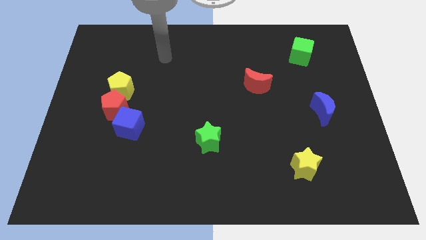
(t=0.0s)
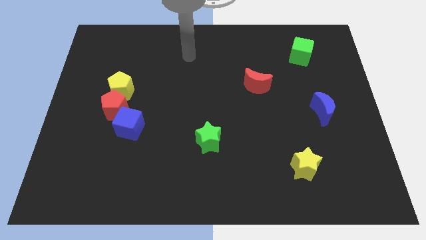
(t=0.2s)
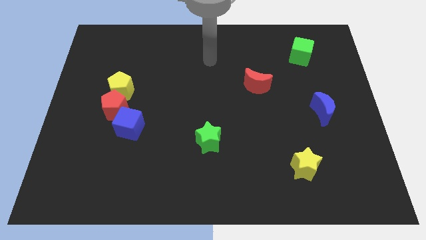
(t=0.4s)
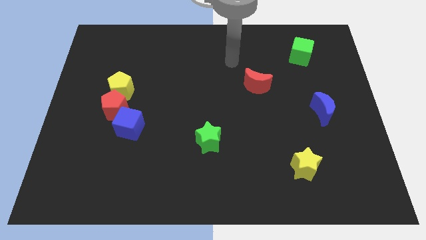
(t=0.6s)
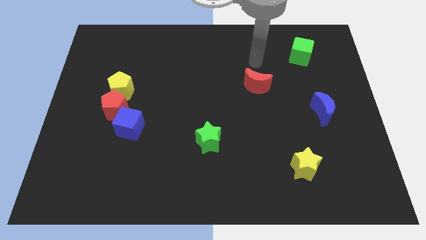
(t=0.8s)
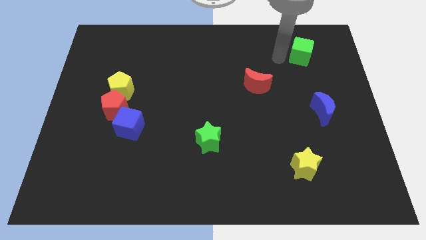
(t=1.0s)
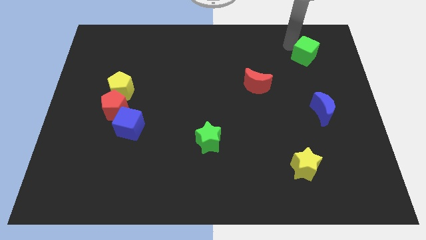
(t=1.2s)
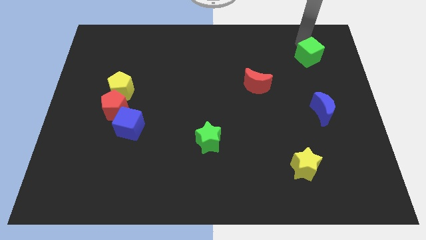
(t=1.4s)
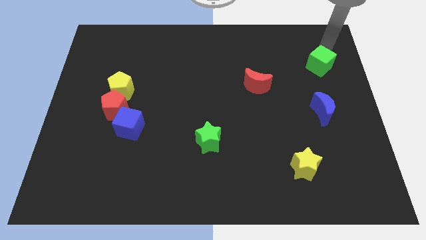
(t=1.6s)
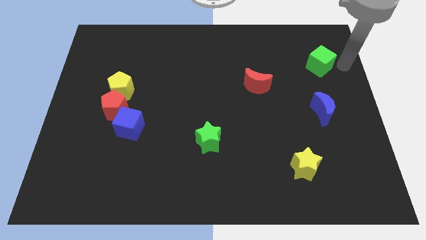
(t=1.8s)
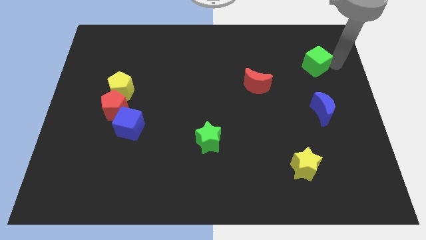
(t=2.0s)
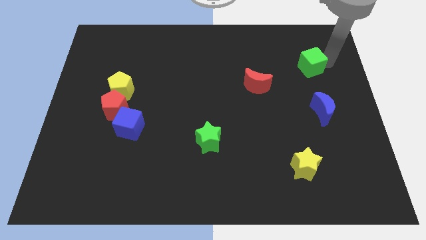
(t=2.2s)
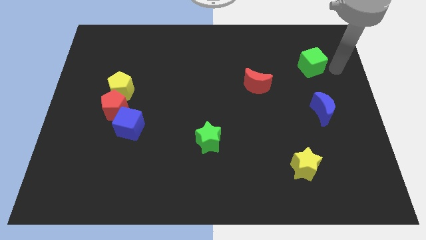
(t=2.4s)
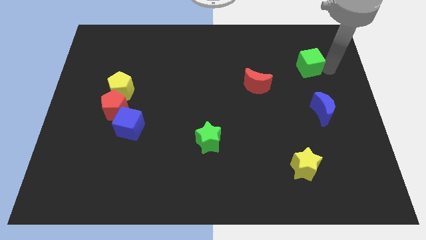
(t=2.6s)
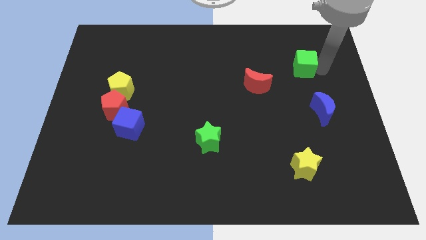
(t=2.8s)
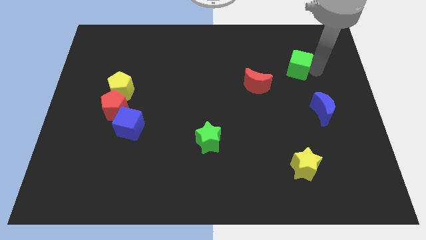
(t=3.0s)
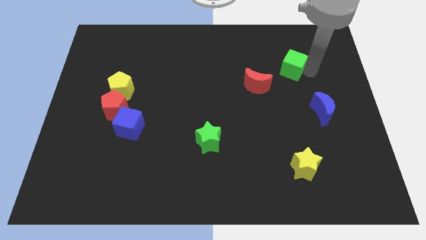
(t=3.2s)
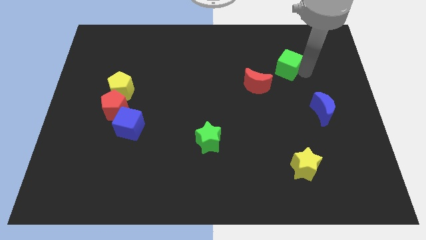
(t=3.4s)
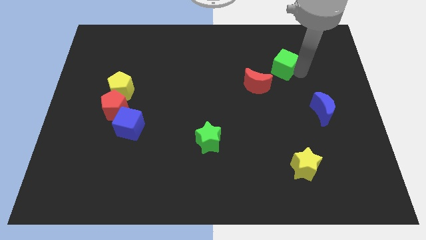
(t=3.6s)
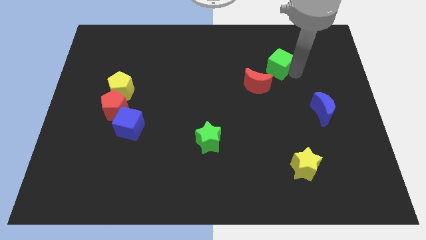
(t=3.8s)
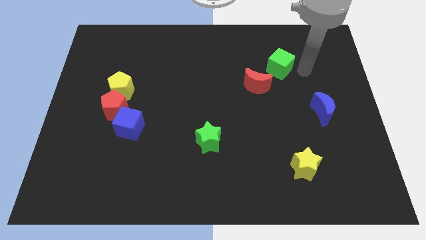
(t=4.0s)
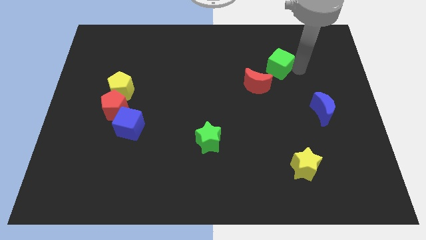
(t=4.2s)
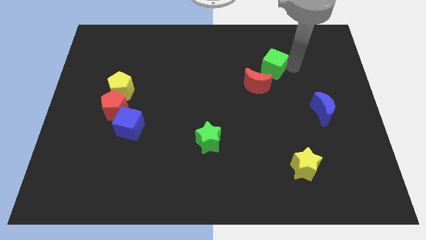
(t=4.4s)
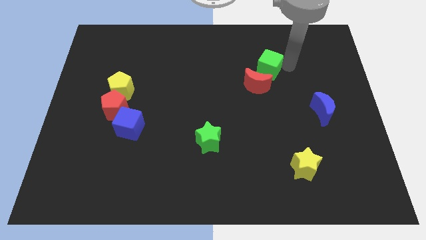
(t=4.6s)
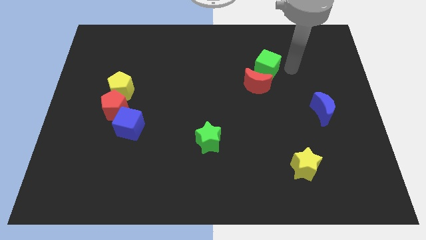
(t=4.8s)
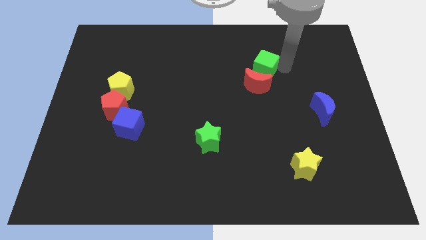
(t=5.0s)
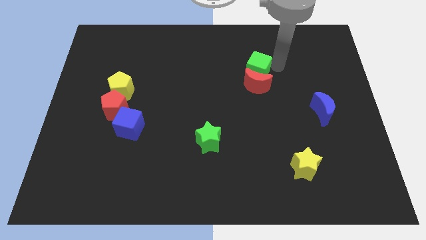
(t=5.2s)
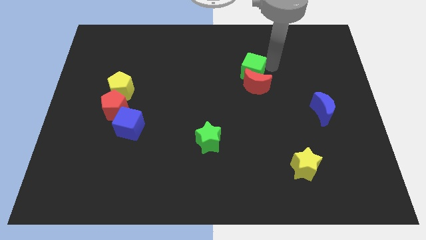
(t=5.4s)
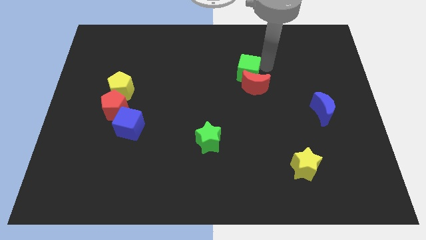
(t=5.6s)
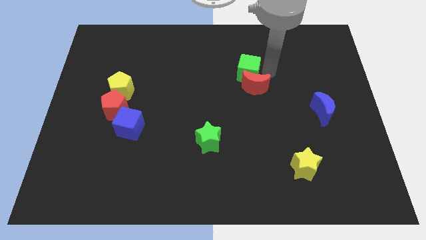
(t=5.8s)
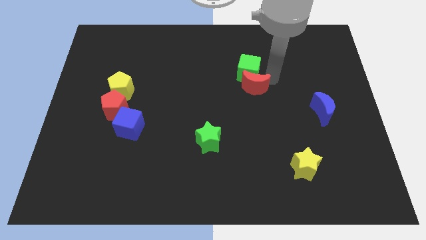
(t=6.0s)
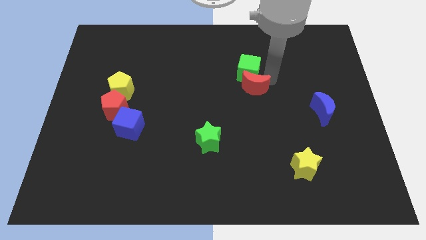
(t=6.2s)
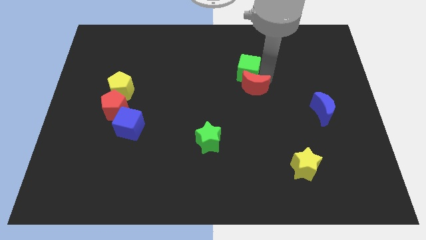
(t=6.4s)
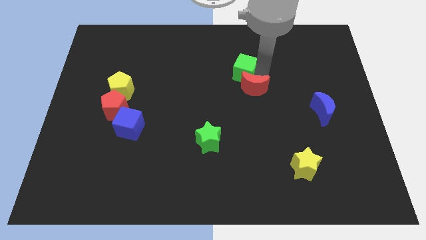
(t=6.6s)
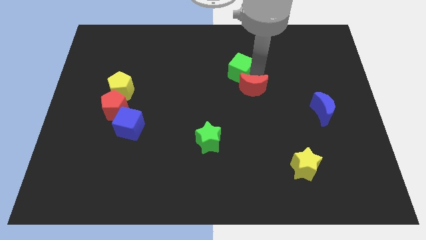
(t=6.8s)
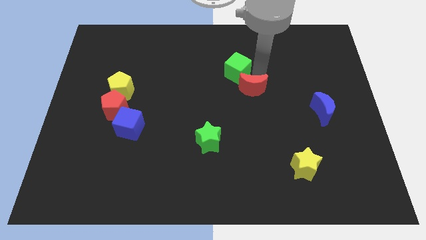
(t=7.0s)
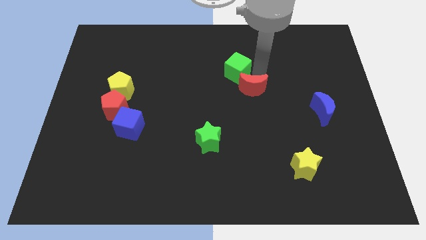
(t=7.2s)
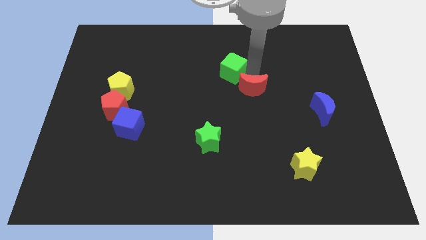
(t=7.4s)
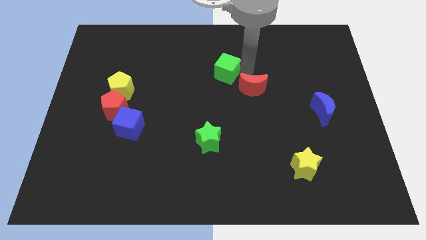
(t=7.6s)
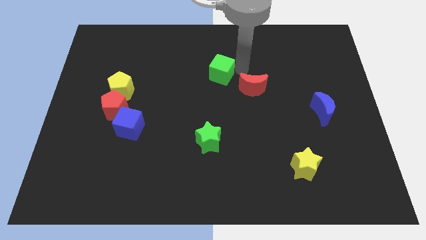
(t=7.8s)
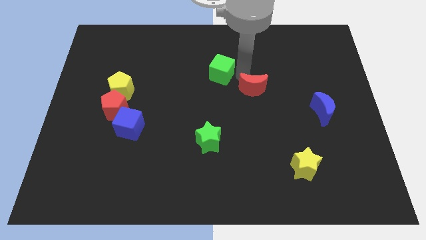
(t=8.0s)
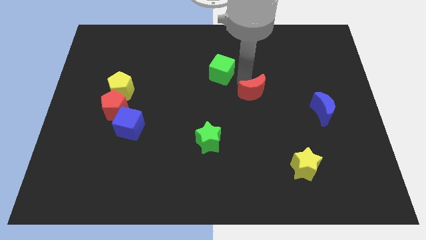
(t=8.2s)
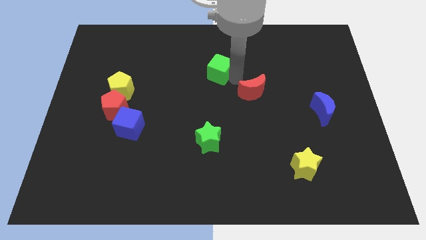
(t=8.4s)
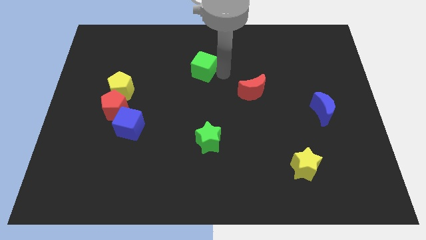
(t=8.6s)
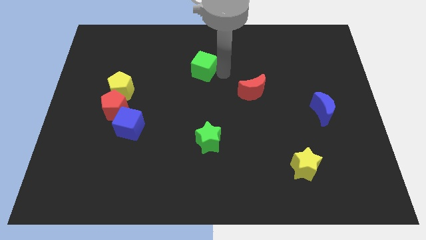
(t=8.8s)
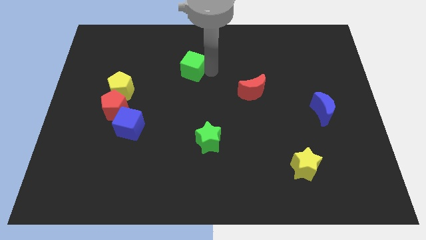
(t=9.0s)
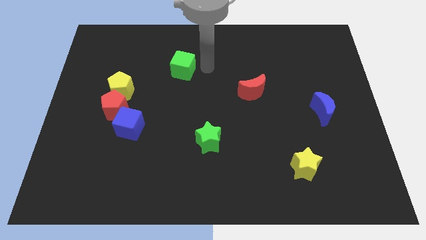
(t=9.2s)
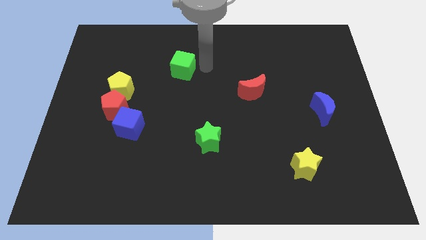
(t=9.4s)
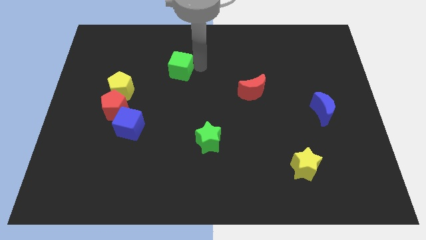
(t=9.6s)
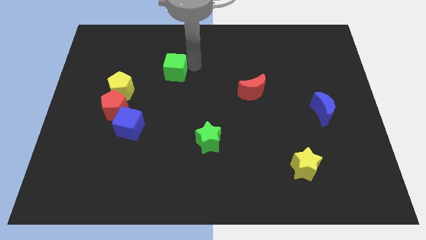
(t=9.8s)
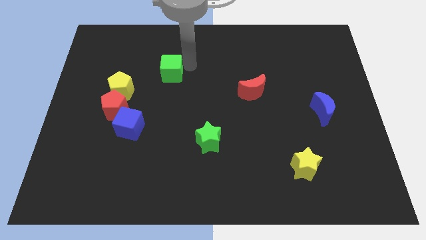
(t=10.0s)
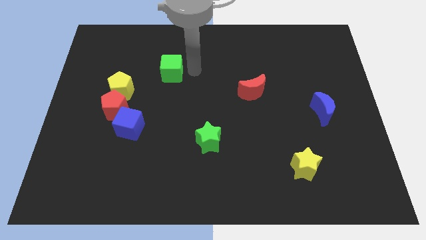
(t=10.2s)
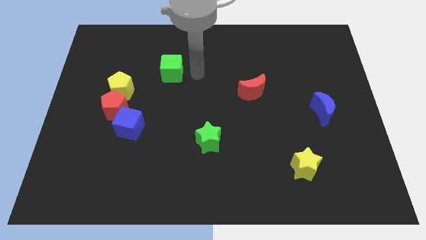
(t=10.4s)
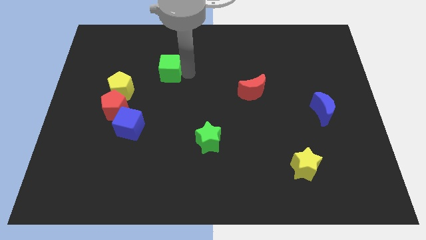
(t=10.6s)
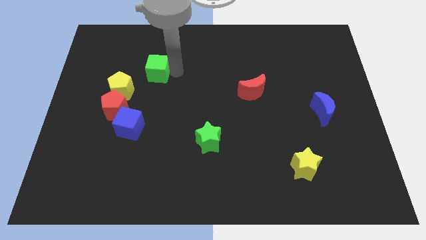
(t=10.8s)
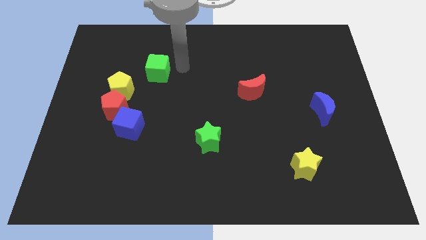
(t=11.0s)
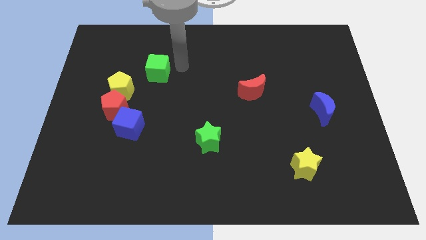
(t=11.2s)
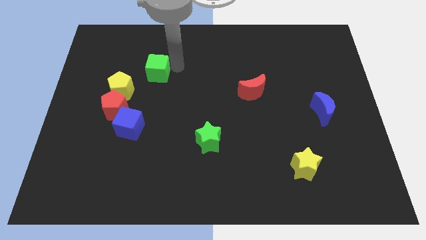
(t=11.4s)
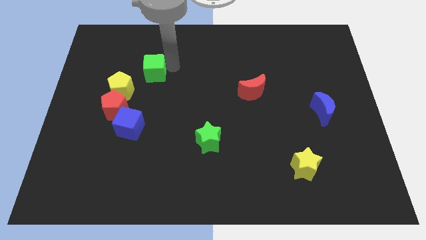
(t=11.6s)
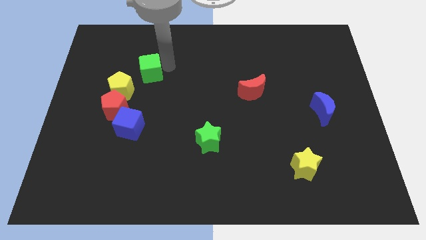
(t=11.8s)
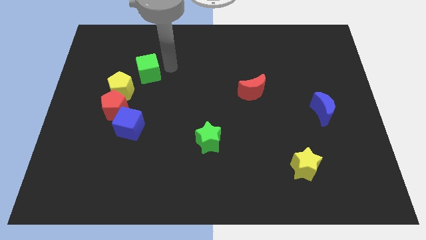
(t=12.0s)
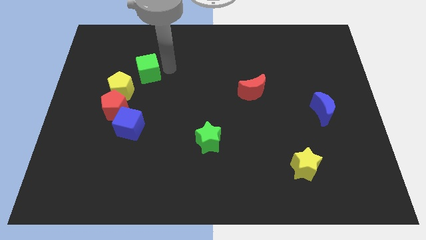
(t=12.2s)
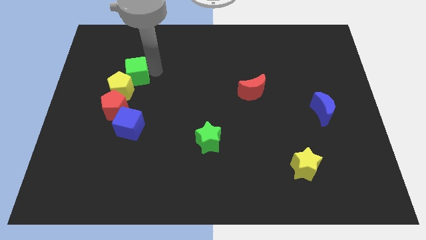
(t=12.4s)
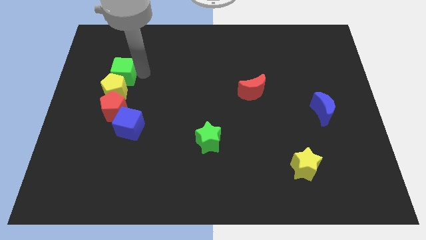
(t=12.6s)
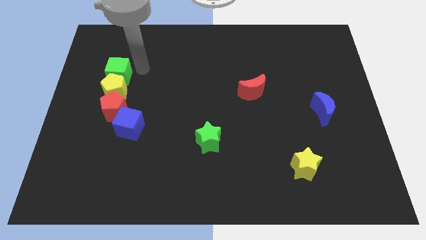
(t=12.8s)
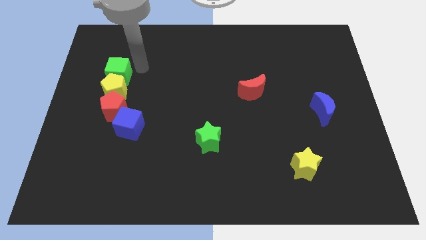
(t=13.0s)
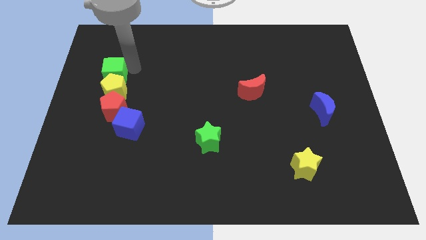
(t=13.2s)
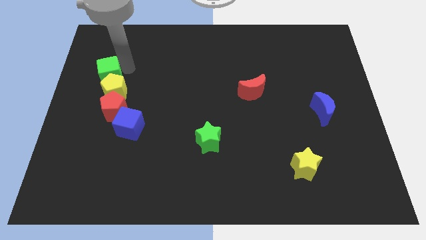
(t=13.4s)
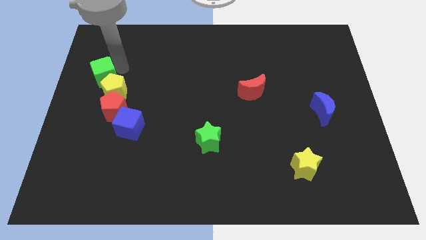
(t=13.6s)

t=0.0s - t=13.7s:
push the green cube to the left side of the board
